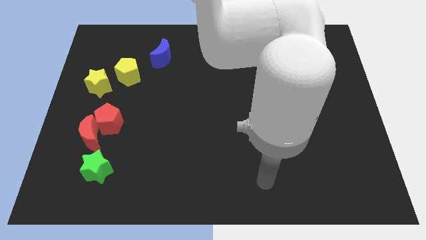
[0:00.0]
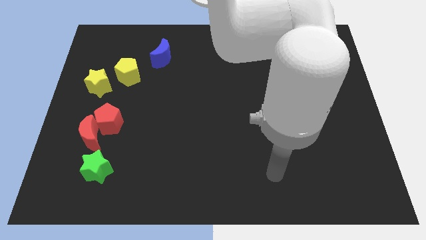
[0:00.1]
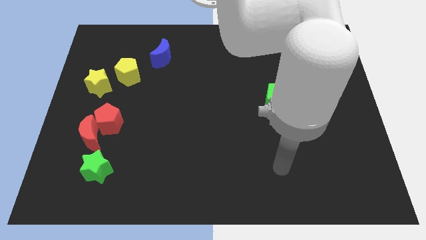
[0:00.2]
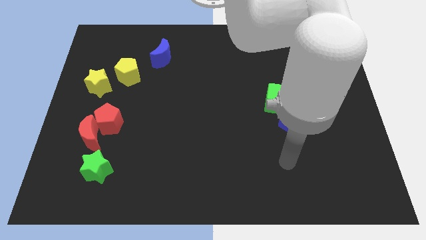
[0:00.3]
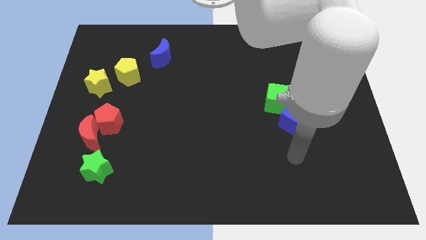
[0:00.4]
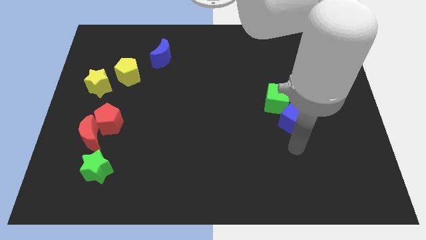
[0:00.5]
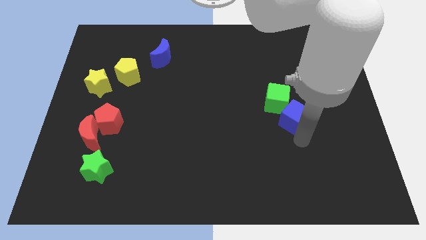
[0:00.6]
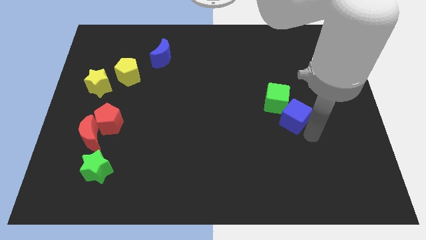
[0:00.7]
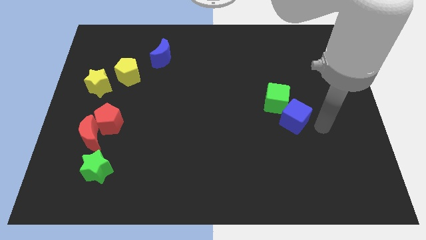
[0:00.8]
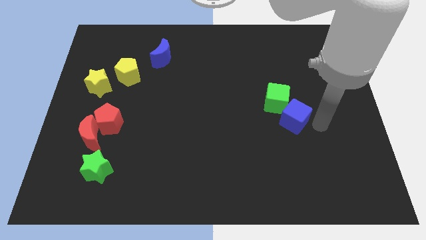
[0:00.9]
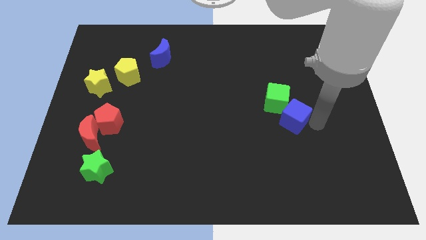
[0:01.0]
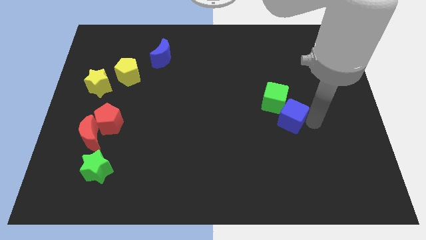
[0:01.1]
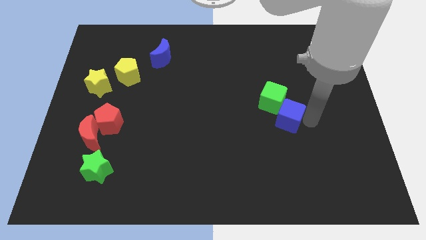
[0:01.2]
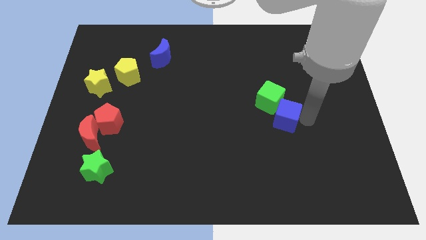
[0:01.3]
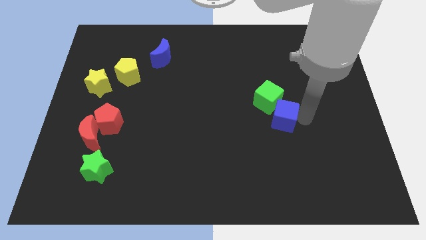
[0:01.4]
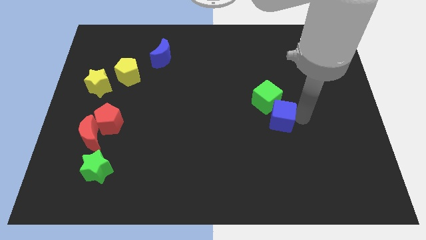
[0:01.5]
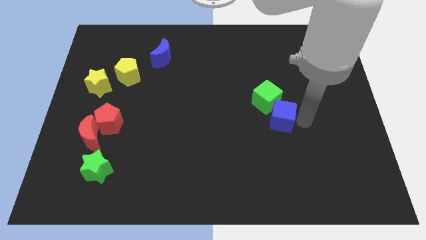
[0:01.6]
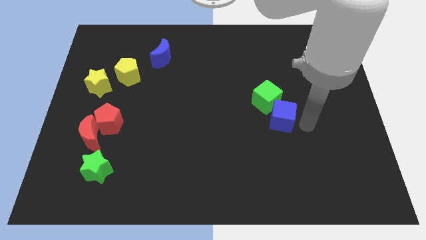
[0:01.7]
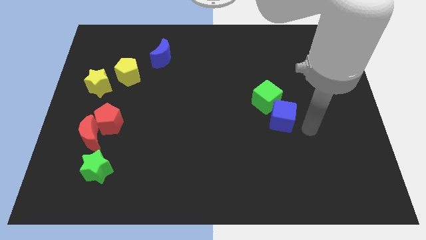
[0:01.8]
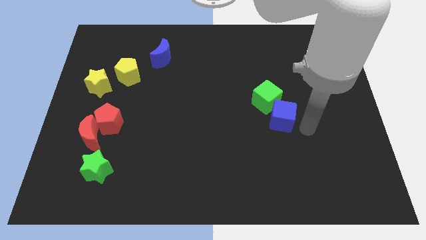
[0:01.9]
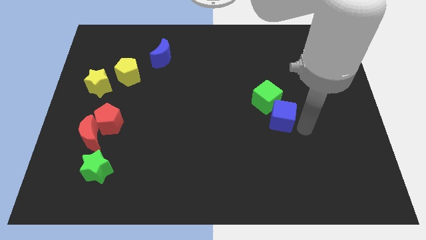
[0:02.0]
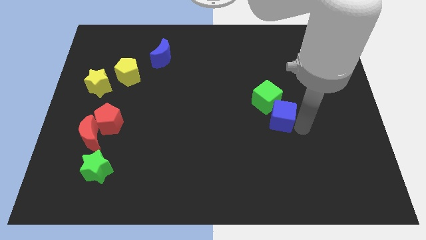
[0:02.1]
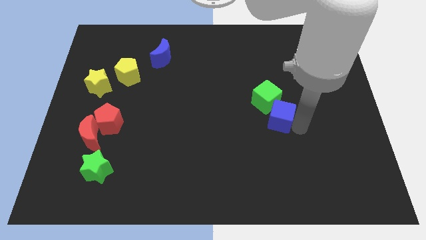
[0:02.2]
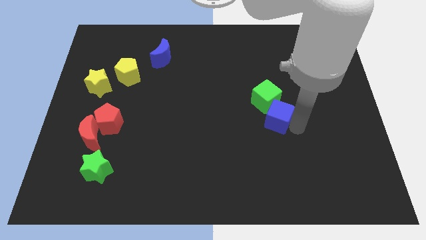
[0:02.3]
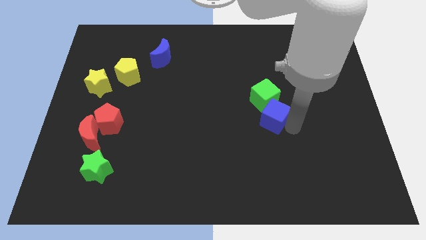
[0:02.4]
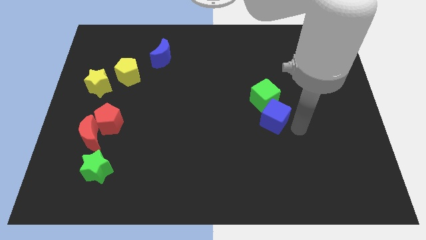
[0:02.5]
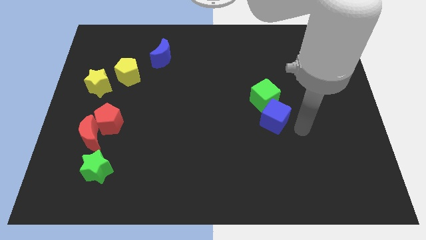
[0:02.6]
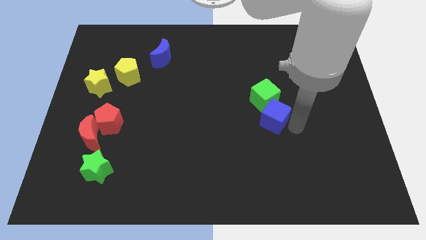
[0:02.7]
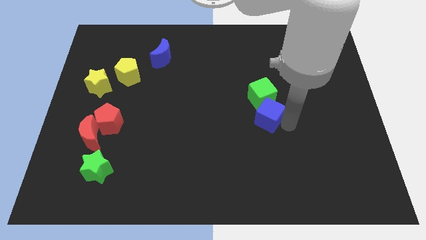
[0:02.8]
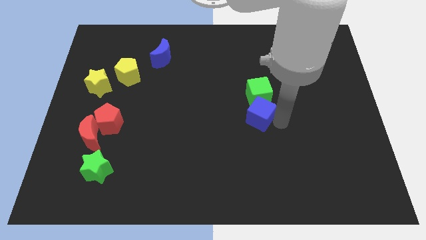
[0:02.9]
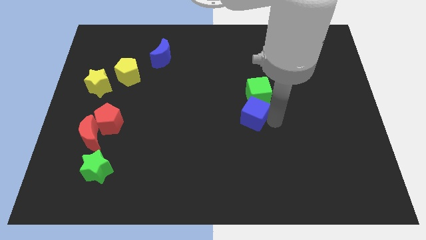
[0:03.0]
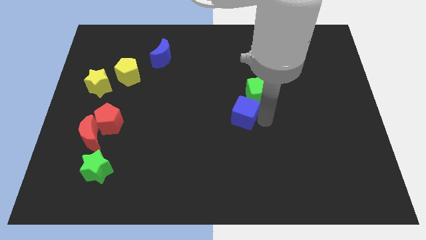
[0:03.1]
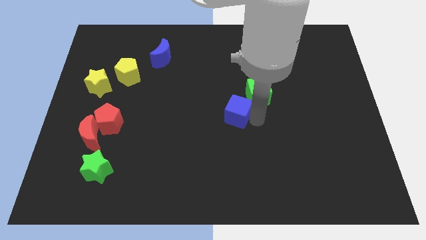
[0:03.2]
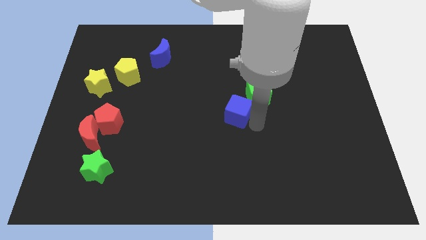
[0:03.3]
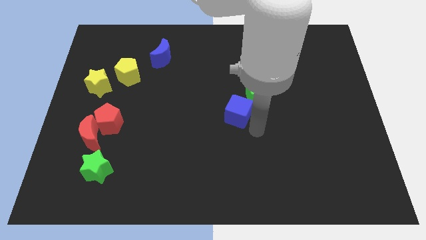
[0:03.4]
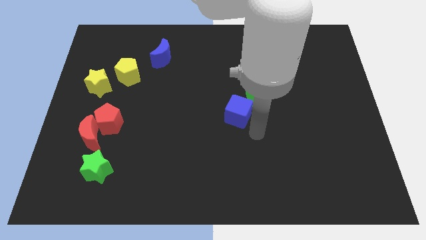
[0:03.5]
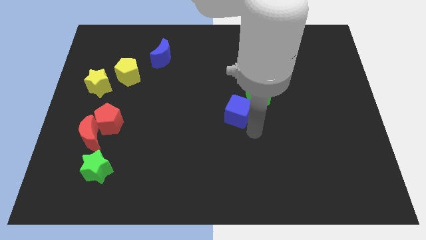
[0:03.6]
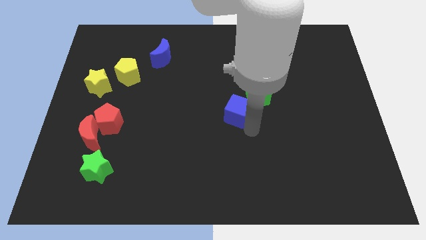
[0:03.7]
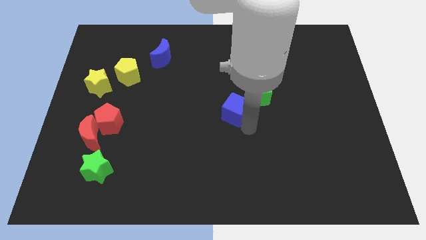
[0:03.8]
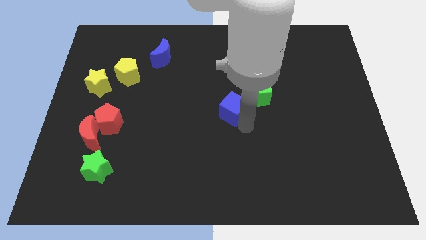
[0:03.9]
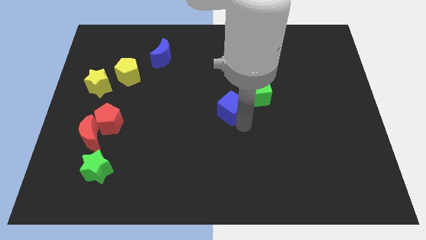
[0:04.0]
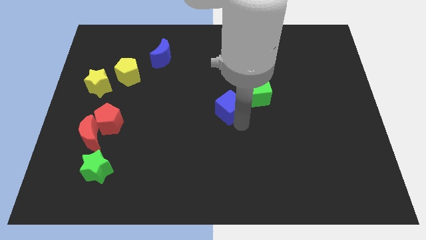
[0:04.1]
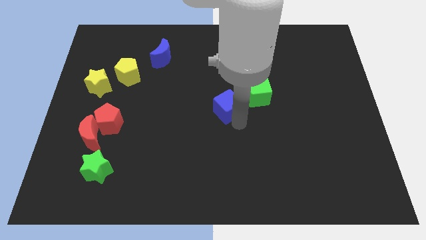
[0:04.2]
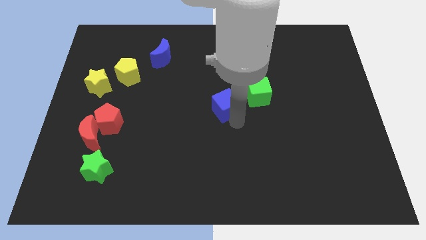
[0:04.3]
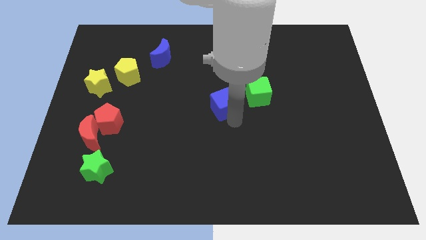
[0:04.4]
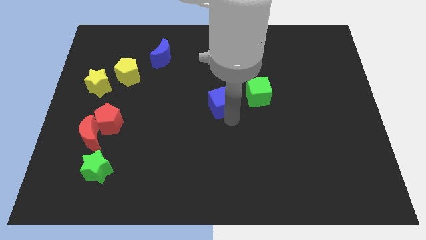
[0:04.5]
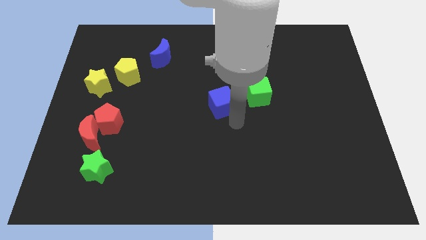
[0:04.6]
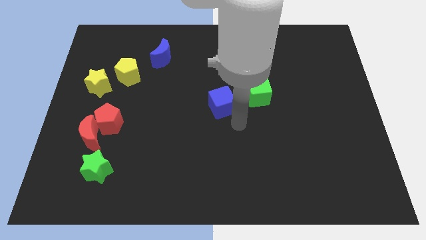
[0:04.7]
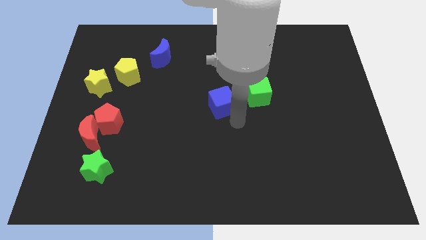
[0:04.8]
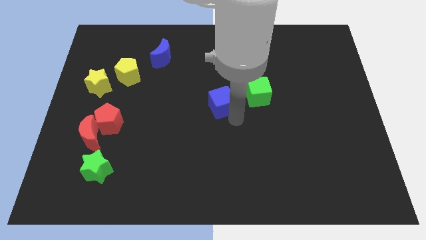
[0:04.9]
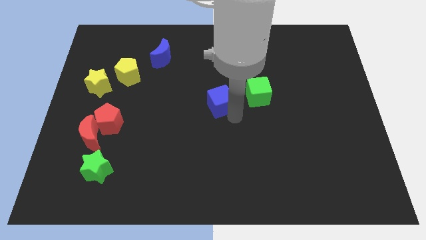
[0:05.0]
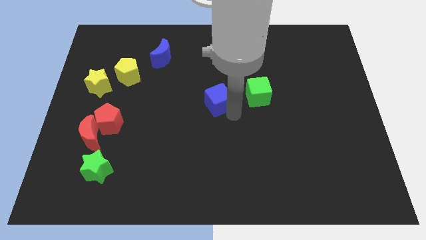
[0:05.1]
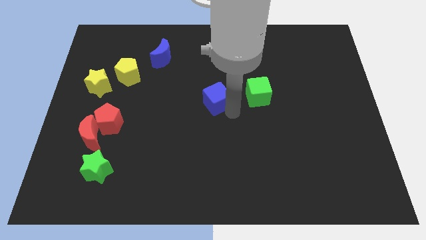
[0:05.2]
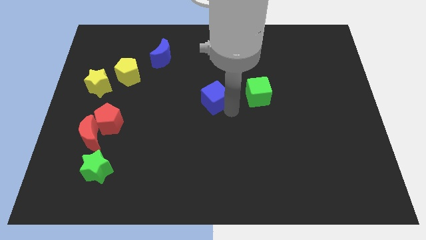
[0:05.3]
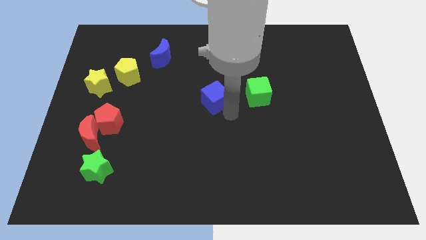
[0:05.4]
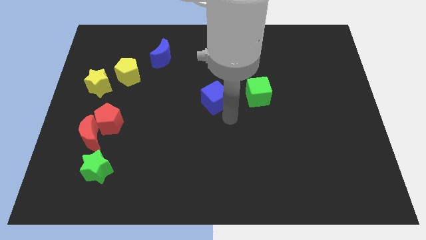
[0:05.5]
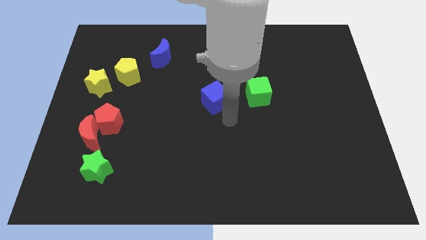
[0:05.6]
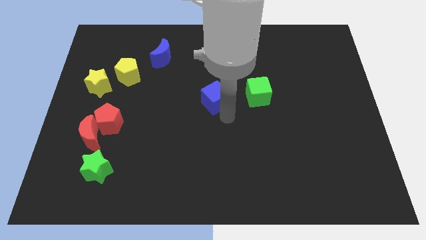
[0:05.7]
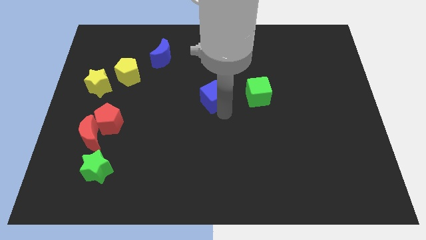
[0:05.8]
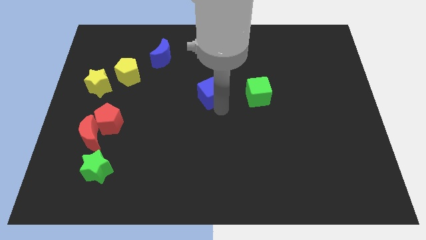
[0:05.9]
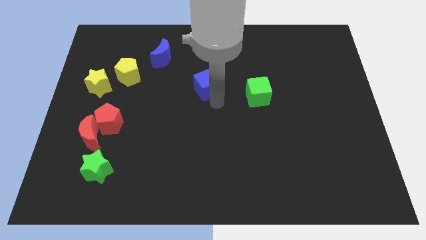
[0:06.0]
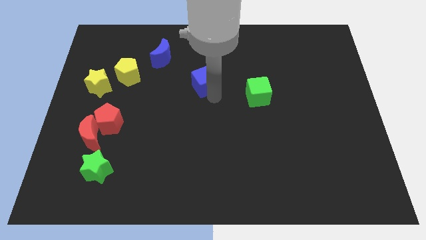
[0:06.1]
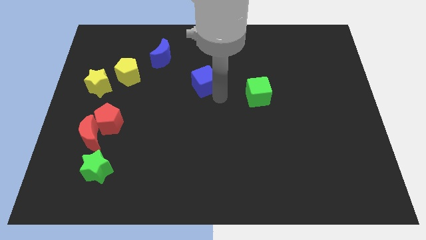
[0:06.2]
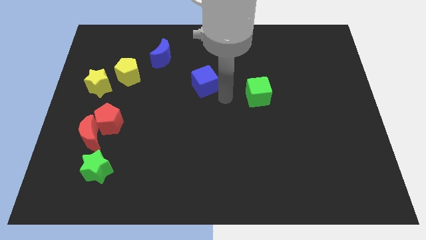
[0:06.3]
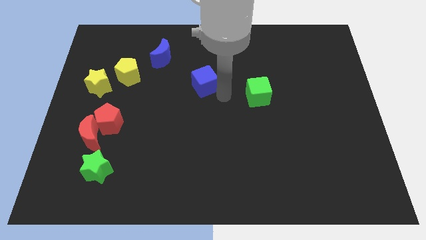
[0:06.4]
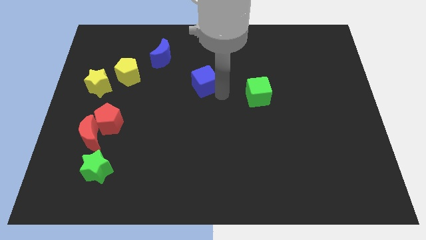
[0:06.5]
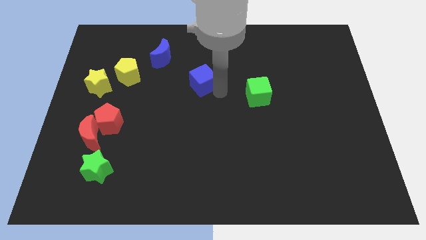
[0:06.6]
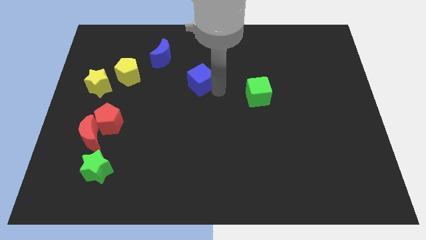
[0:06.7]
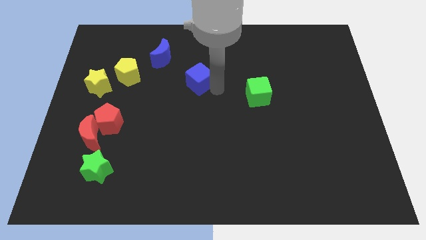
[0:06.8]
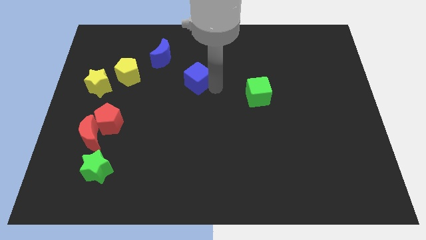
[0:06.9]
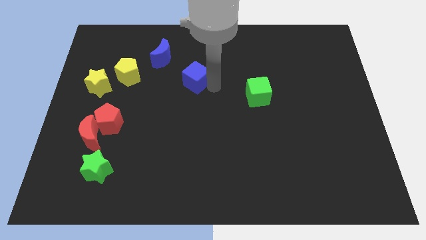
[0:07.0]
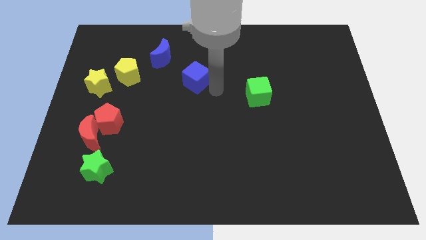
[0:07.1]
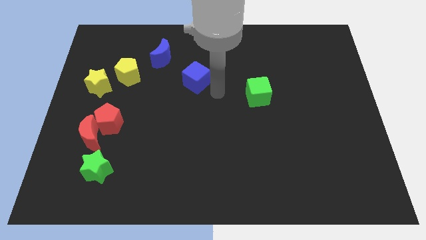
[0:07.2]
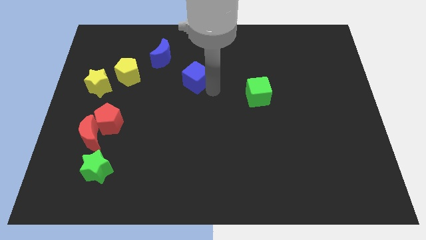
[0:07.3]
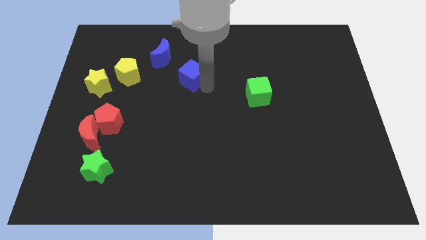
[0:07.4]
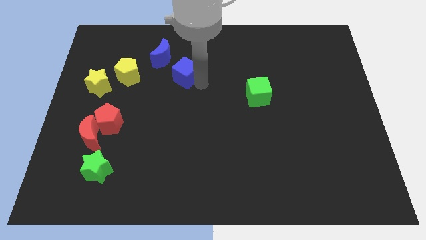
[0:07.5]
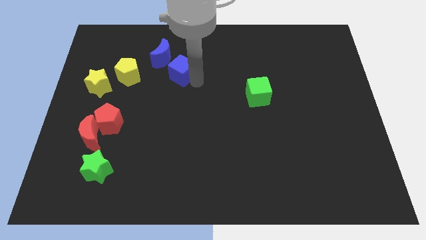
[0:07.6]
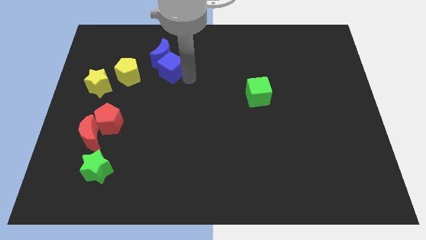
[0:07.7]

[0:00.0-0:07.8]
move the blue cube close to the blue moon
